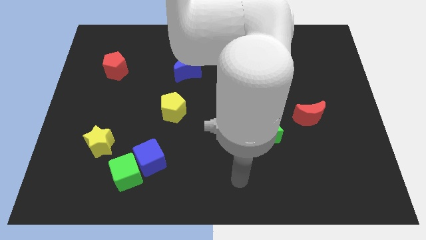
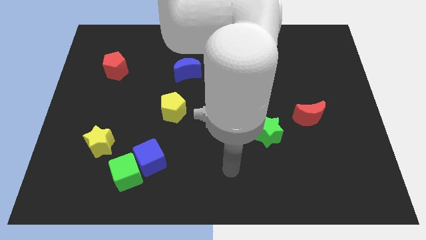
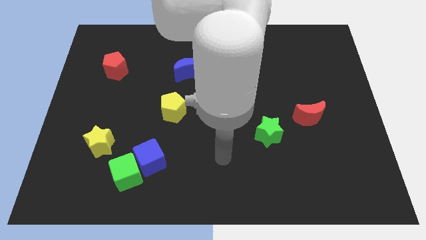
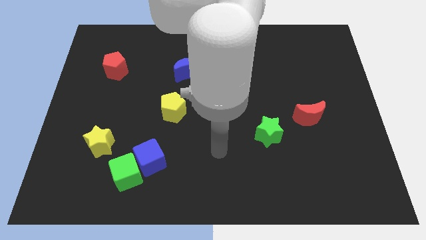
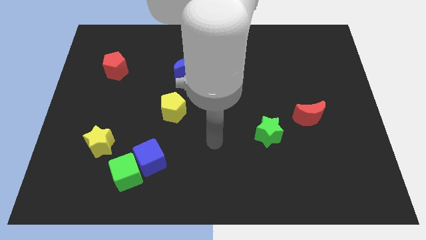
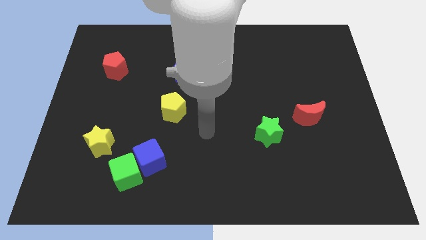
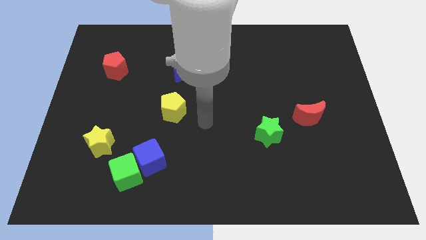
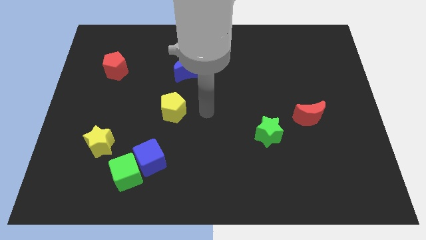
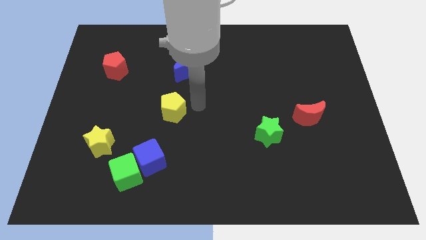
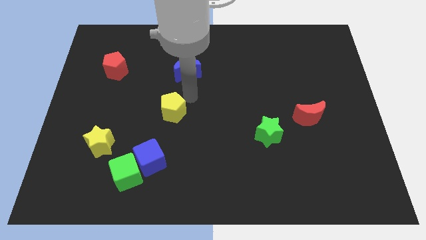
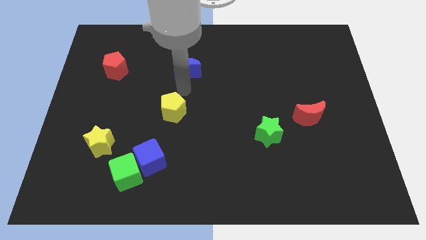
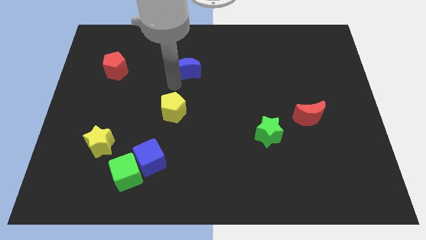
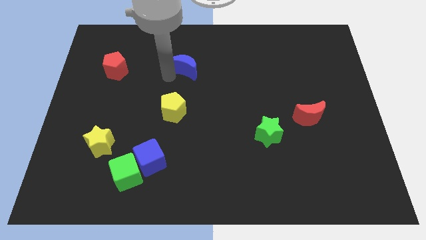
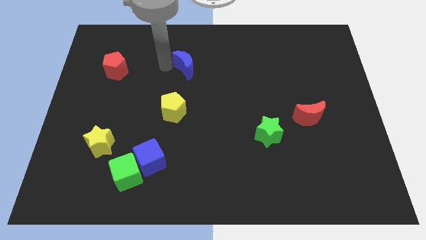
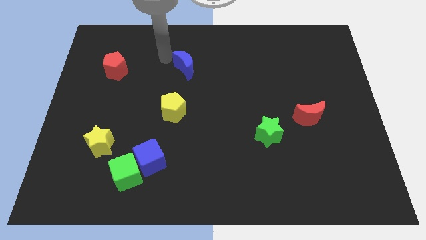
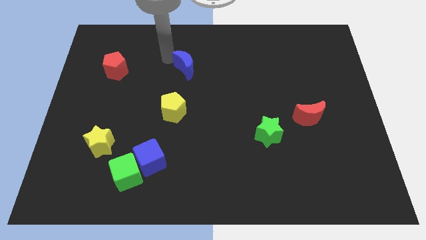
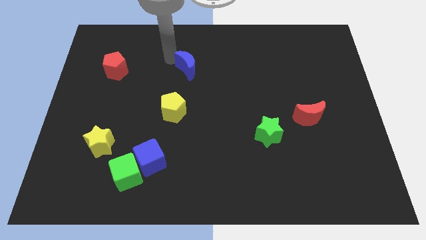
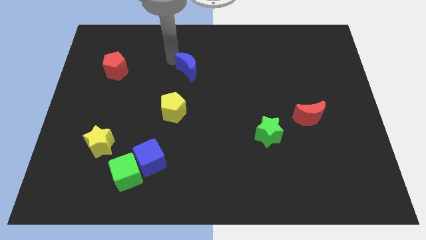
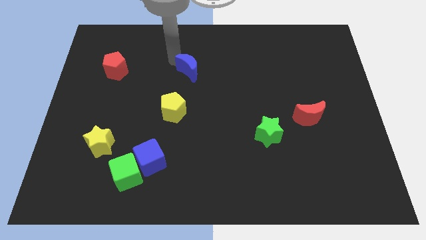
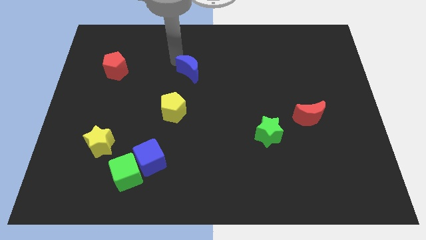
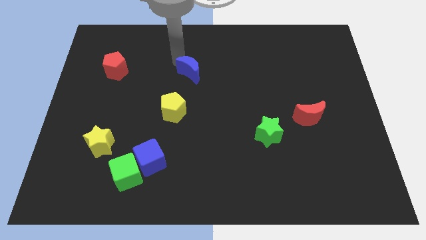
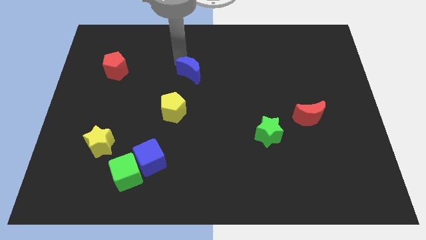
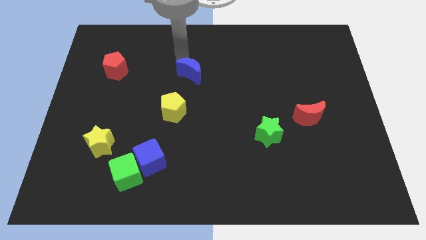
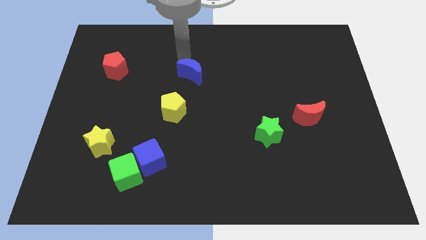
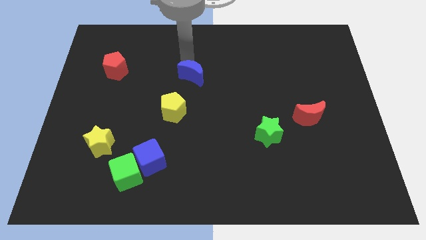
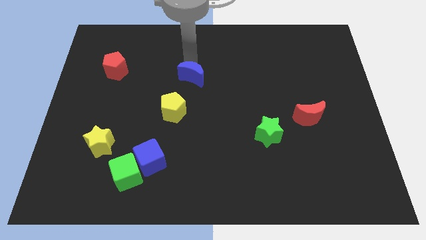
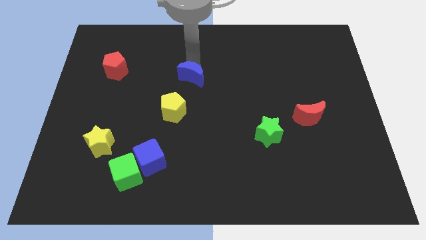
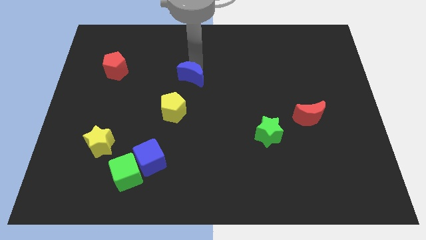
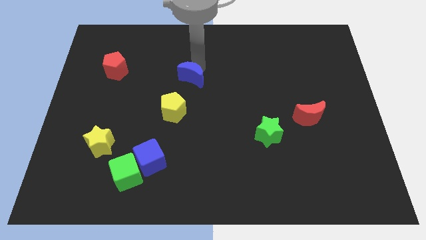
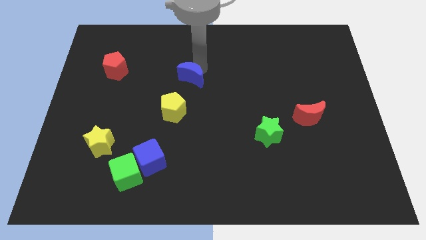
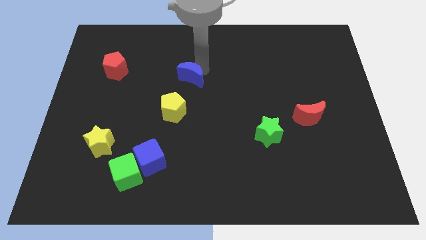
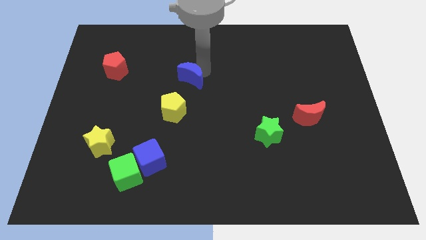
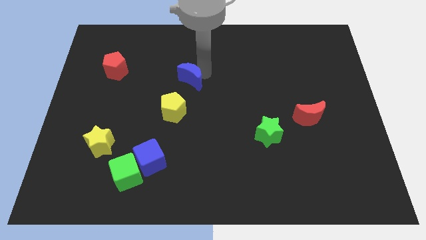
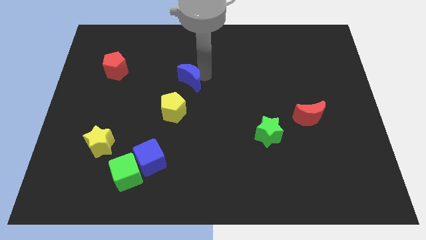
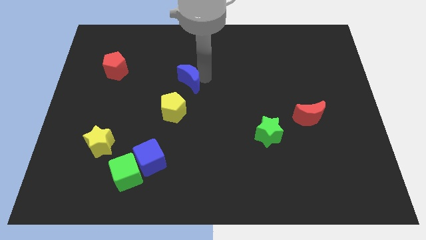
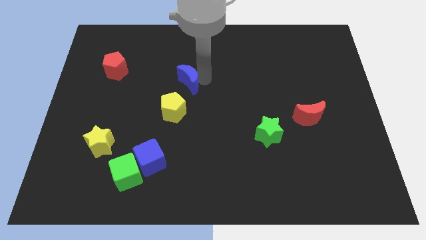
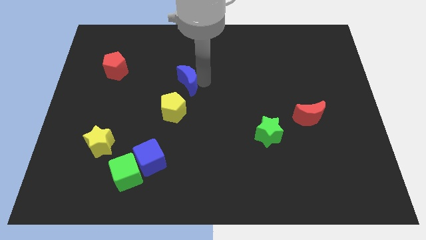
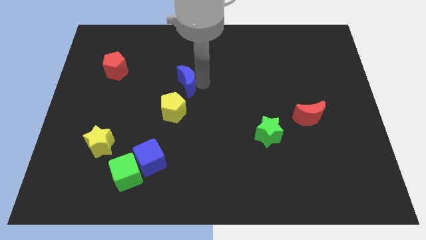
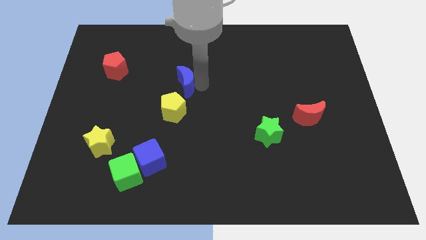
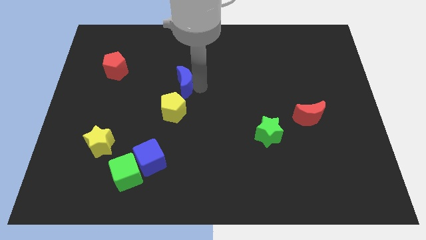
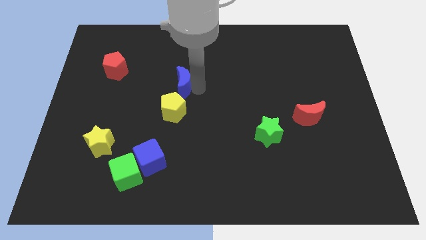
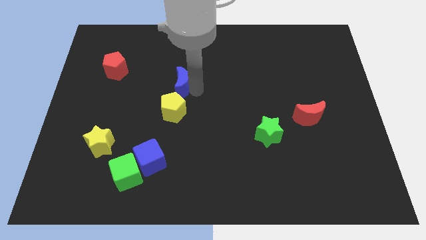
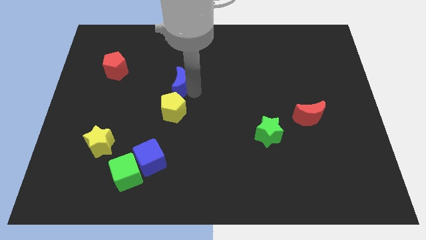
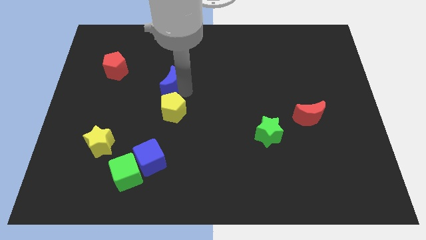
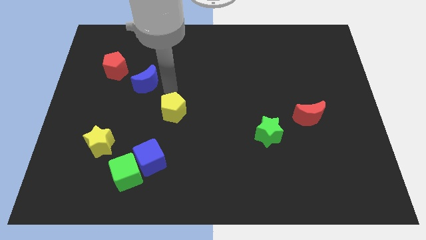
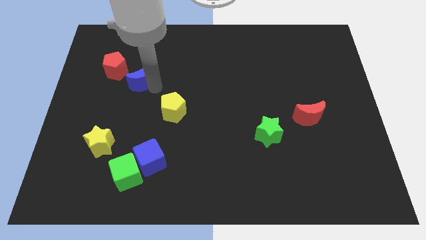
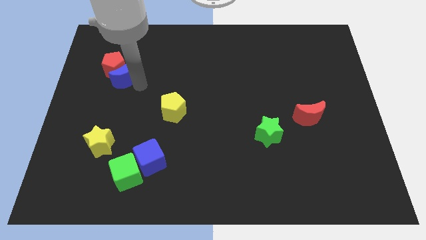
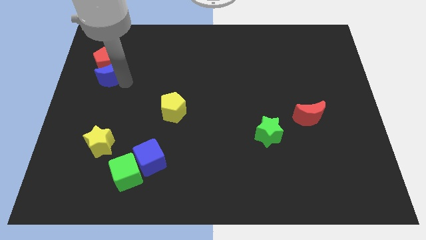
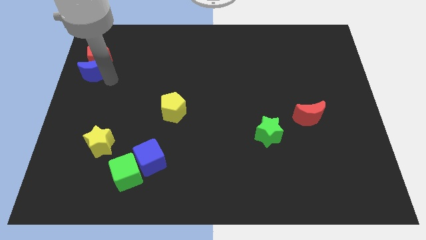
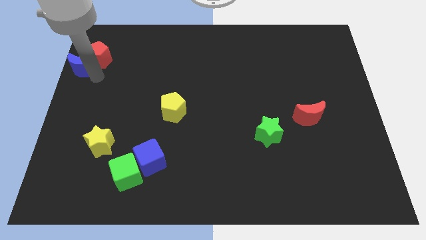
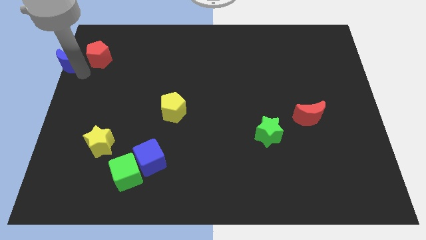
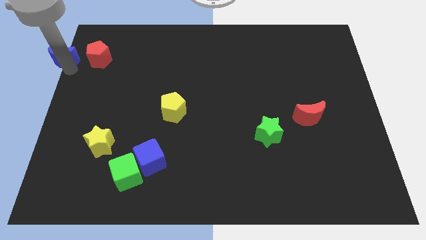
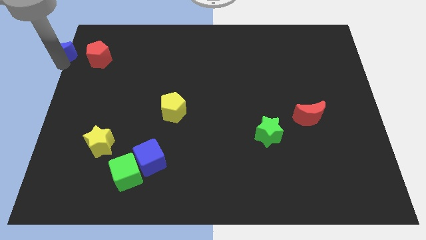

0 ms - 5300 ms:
put the blue moon to the upper left corner
